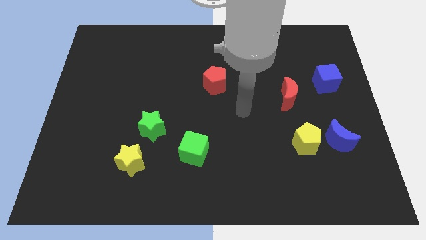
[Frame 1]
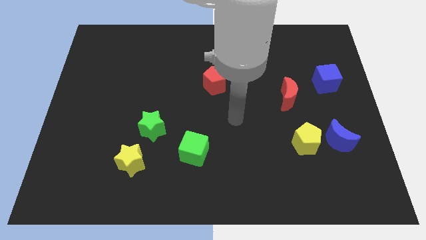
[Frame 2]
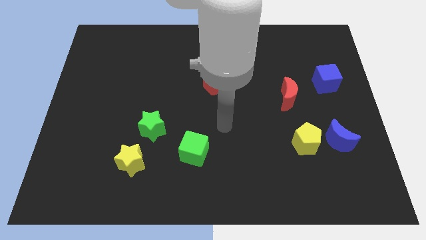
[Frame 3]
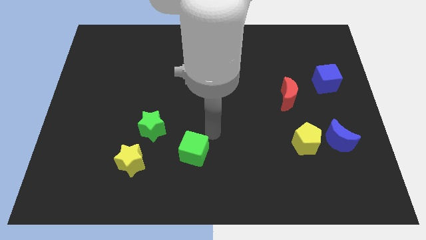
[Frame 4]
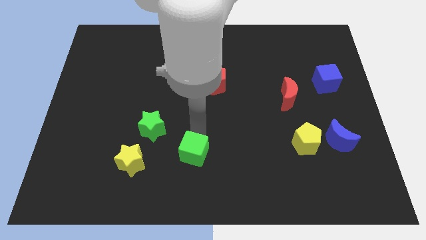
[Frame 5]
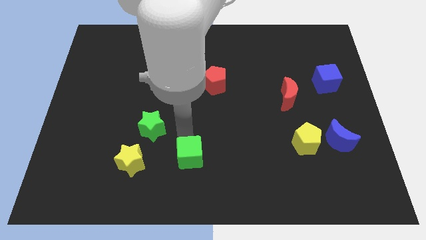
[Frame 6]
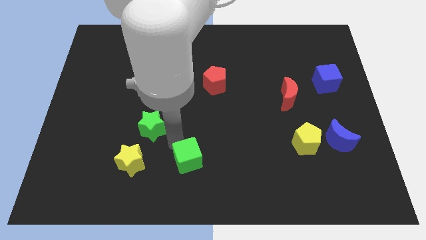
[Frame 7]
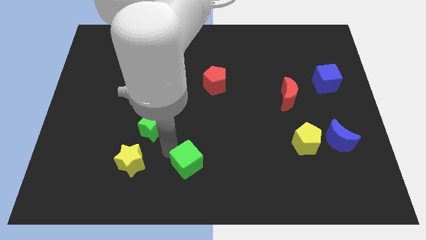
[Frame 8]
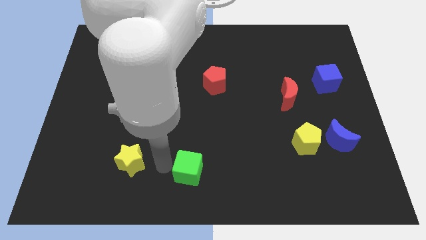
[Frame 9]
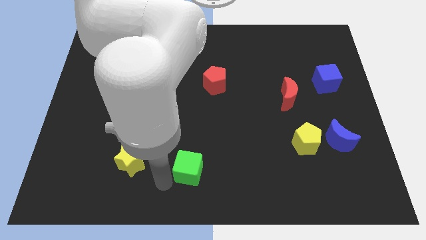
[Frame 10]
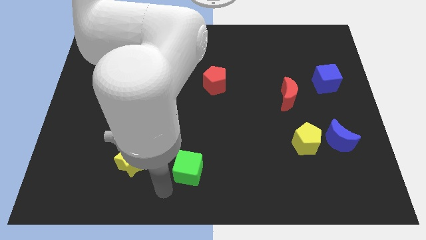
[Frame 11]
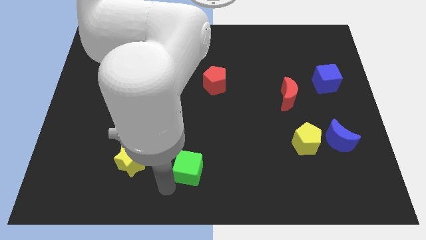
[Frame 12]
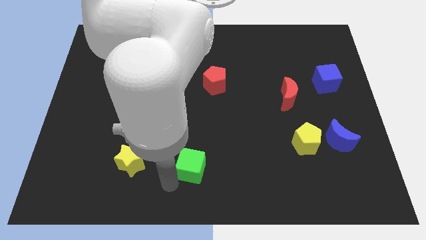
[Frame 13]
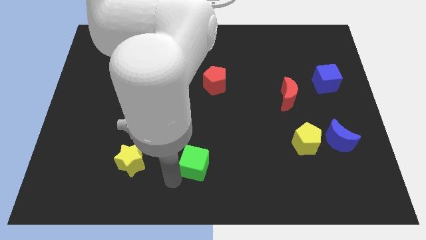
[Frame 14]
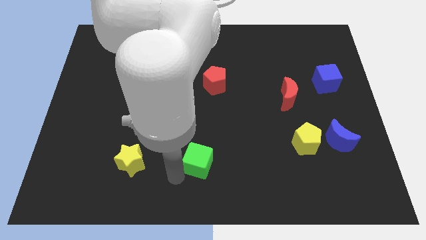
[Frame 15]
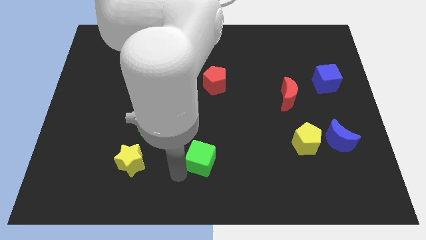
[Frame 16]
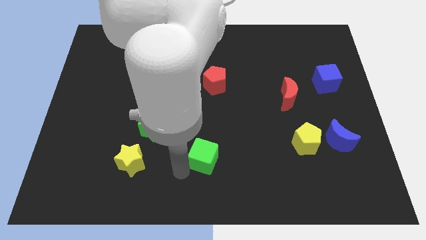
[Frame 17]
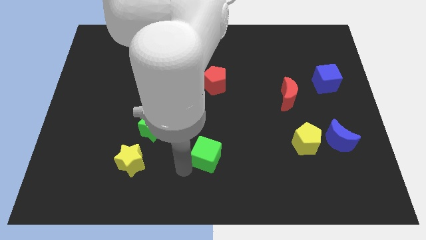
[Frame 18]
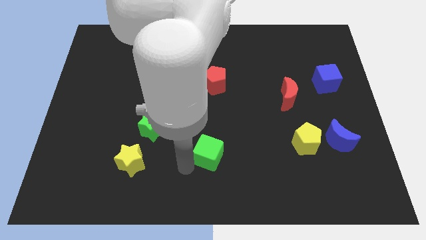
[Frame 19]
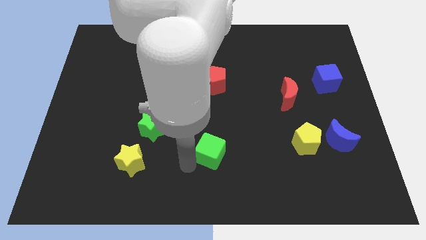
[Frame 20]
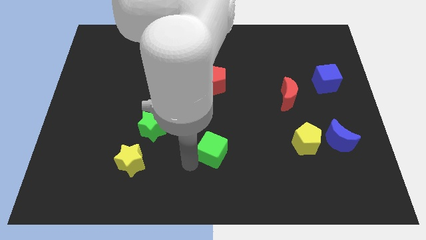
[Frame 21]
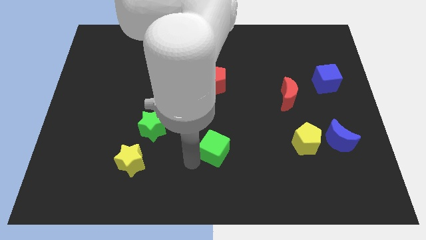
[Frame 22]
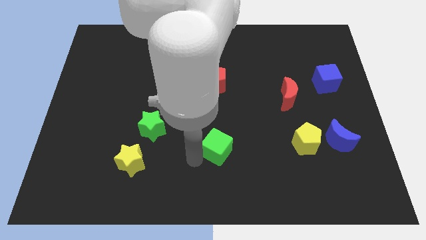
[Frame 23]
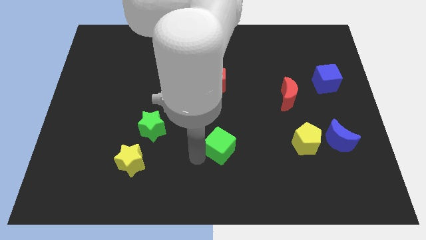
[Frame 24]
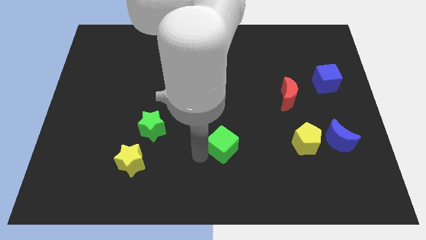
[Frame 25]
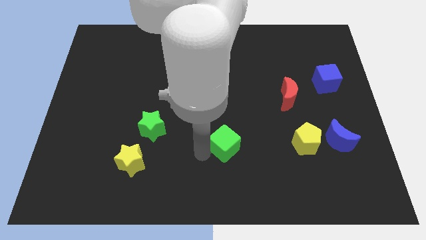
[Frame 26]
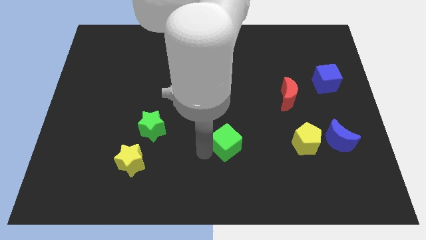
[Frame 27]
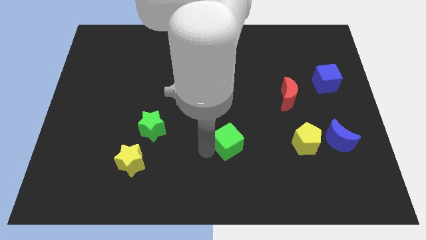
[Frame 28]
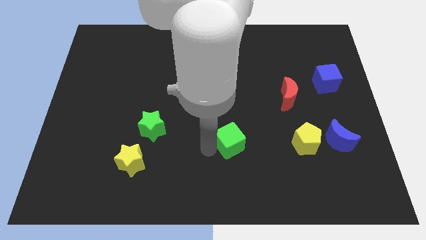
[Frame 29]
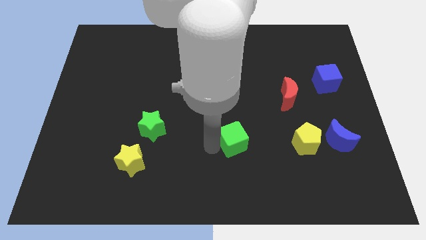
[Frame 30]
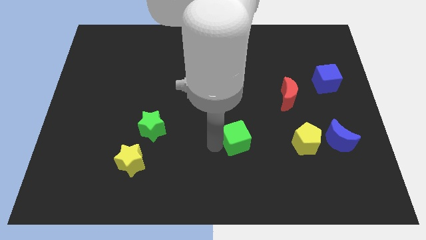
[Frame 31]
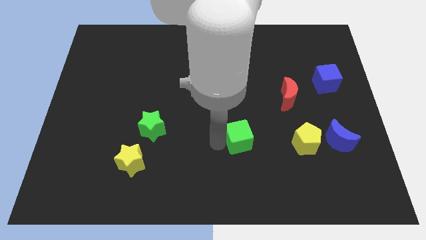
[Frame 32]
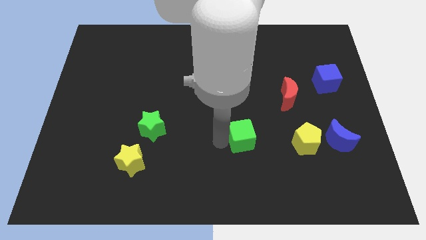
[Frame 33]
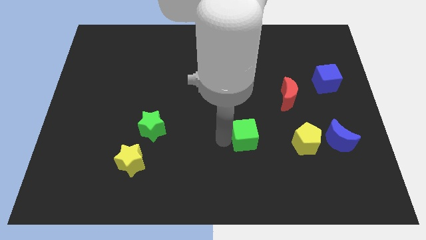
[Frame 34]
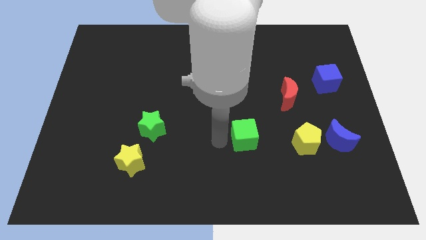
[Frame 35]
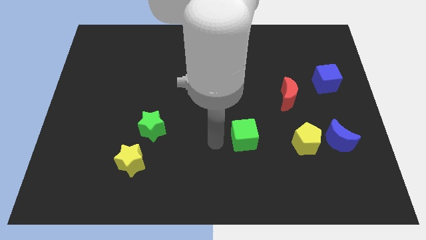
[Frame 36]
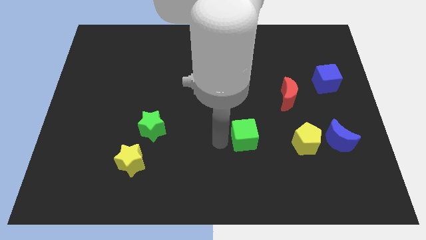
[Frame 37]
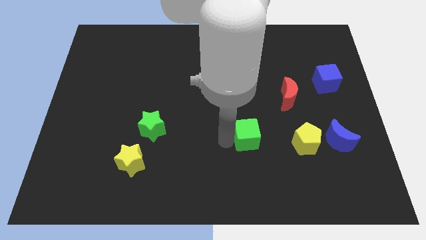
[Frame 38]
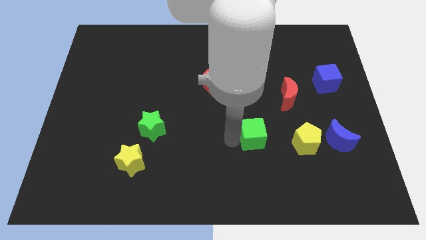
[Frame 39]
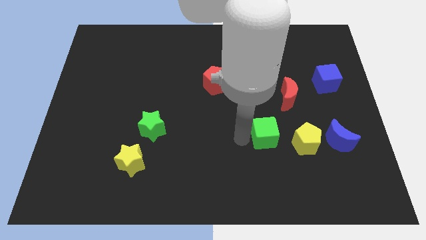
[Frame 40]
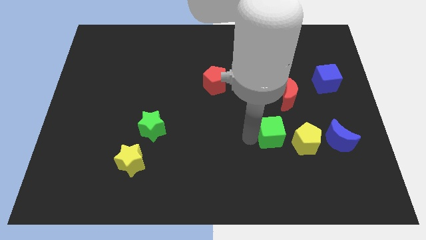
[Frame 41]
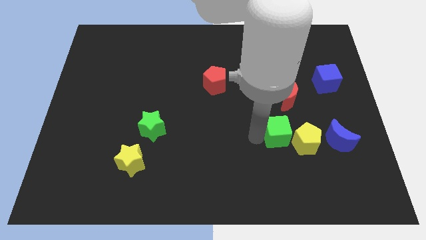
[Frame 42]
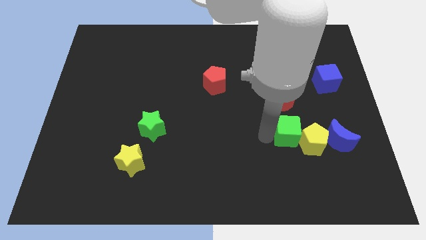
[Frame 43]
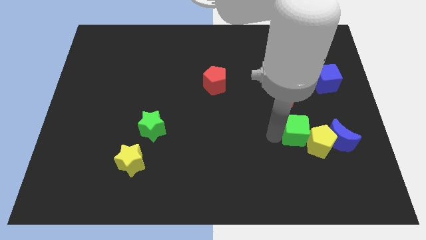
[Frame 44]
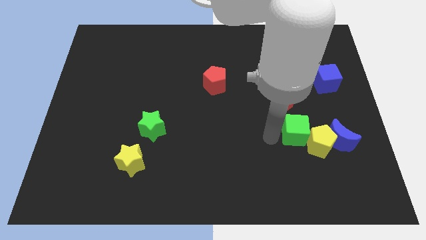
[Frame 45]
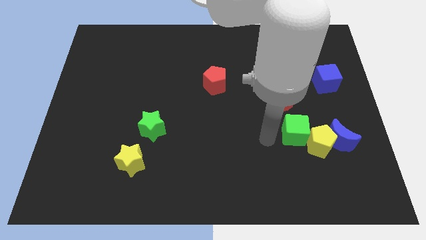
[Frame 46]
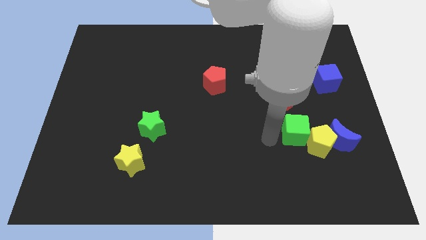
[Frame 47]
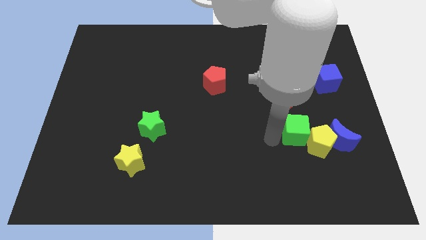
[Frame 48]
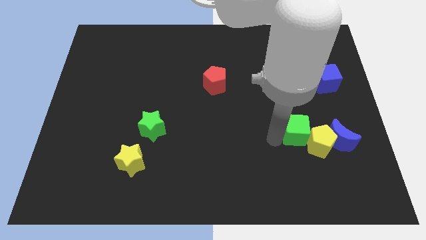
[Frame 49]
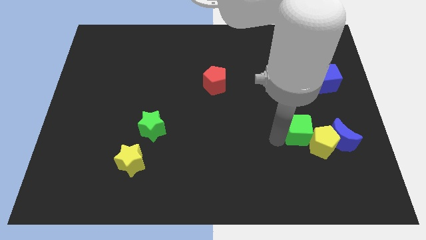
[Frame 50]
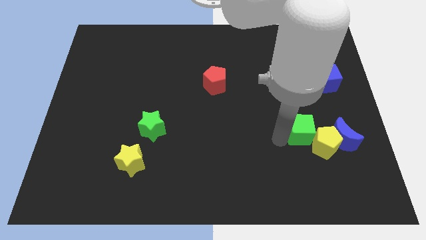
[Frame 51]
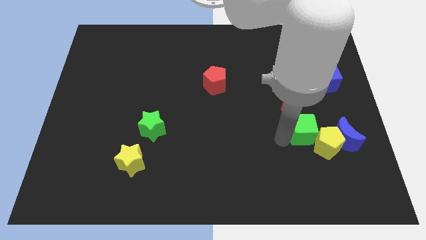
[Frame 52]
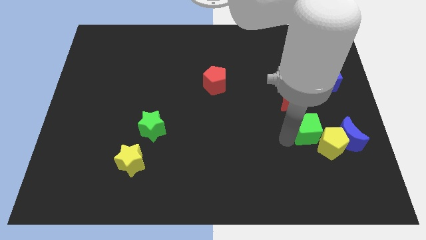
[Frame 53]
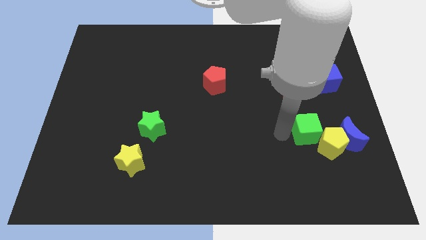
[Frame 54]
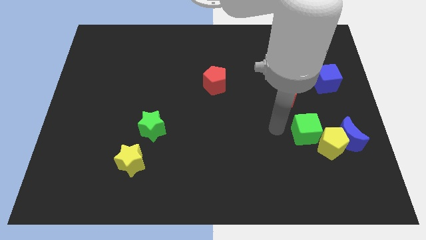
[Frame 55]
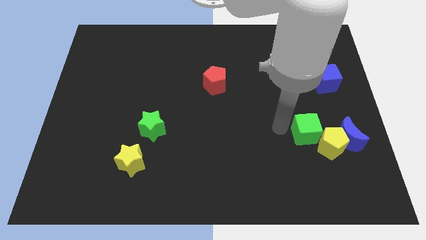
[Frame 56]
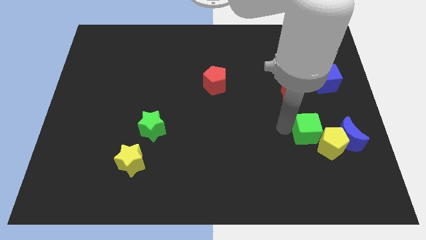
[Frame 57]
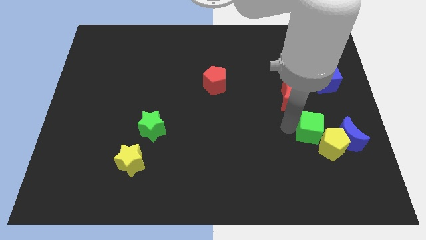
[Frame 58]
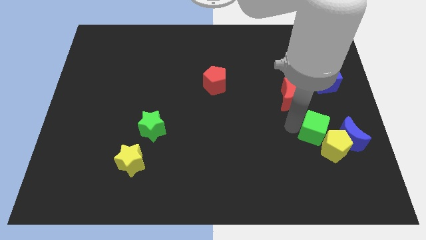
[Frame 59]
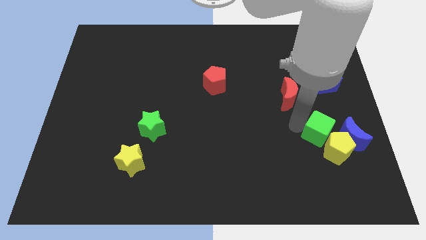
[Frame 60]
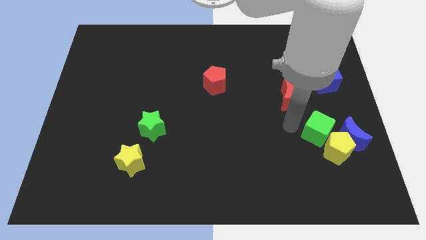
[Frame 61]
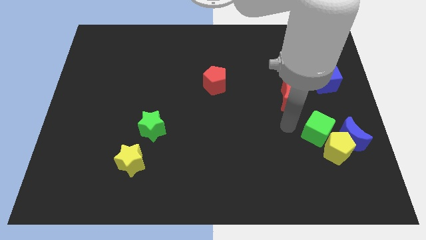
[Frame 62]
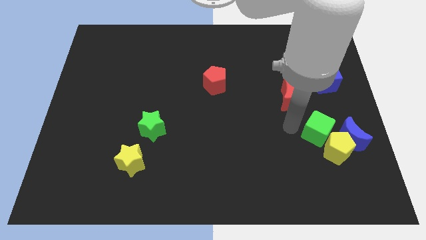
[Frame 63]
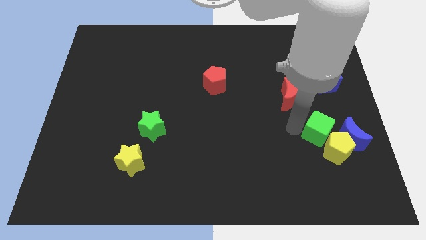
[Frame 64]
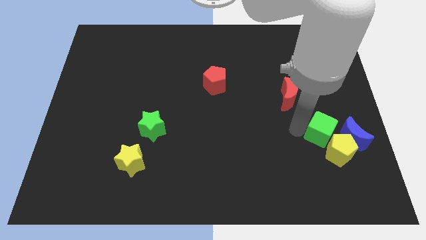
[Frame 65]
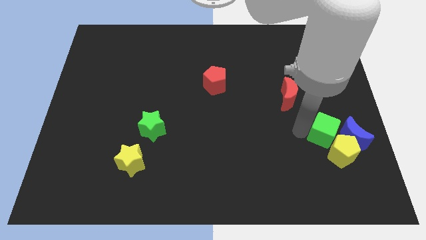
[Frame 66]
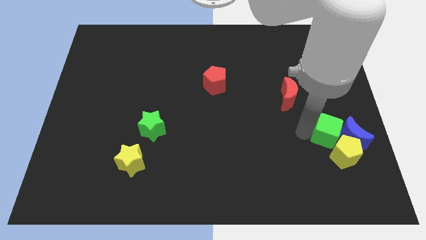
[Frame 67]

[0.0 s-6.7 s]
slide the green cube towards the blue moon

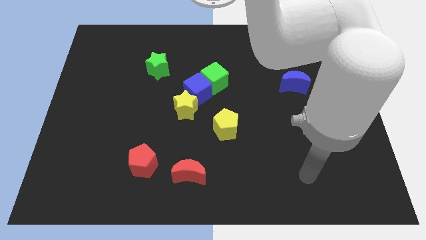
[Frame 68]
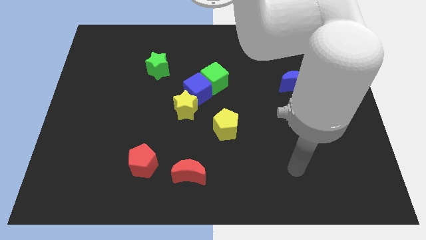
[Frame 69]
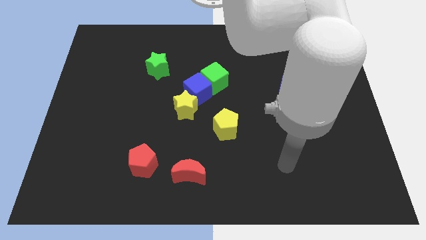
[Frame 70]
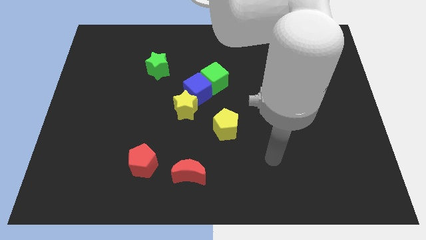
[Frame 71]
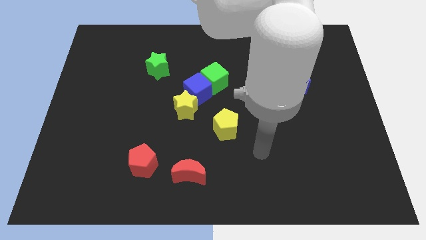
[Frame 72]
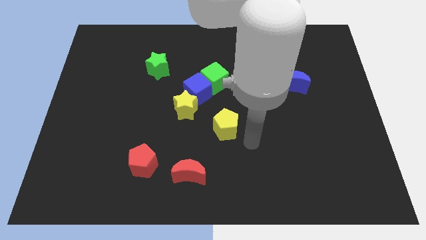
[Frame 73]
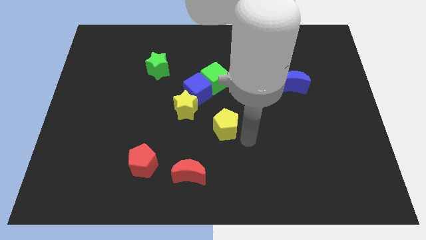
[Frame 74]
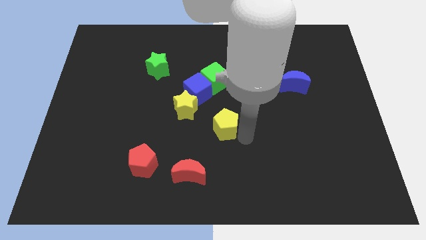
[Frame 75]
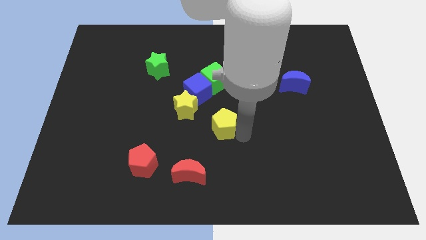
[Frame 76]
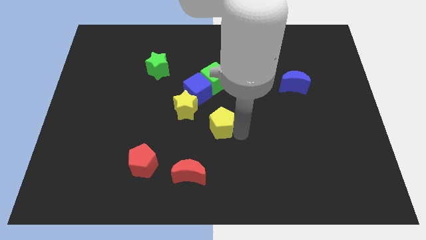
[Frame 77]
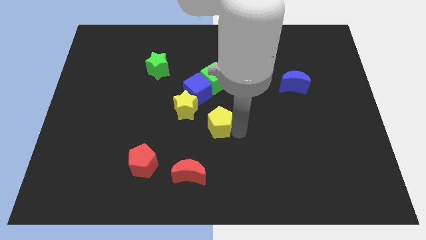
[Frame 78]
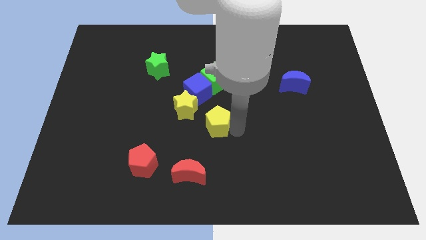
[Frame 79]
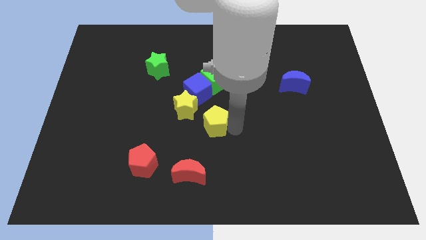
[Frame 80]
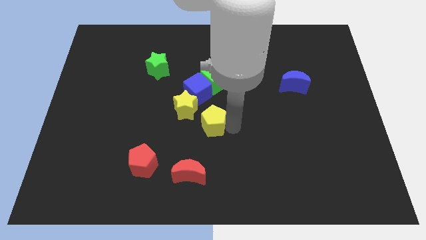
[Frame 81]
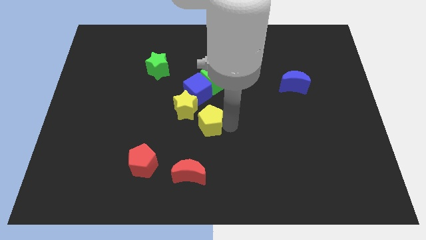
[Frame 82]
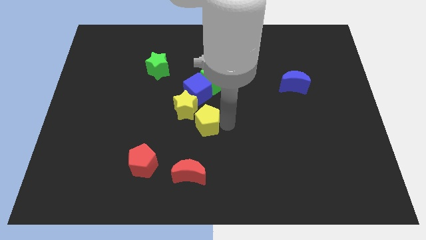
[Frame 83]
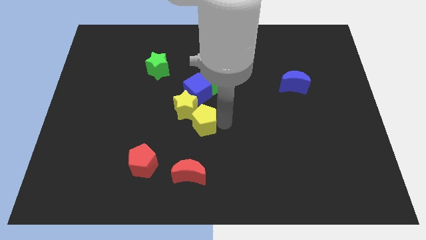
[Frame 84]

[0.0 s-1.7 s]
move the yellow pentagon to the yellow star

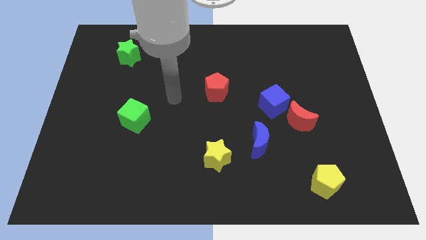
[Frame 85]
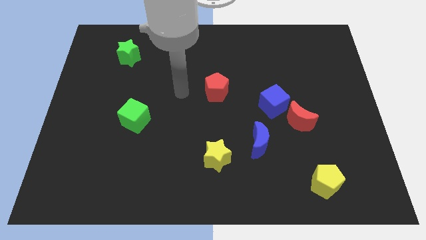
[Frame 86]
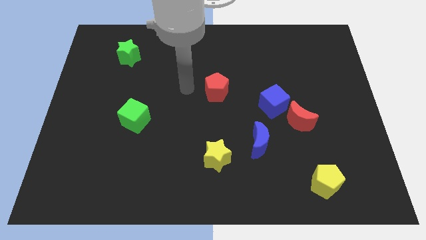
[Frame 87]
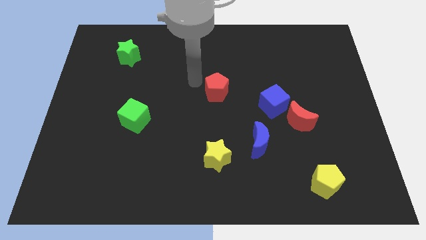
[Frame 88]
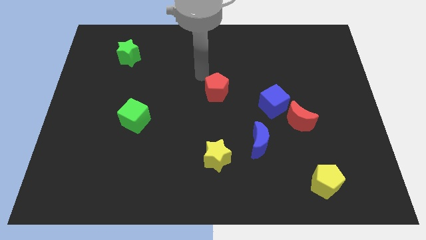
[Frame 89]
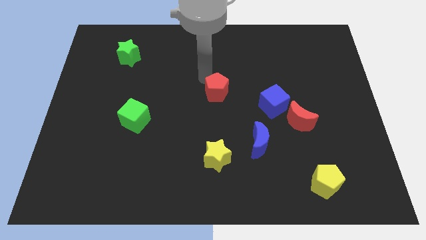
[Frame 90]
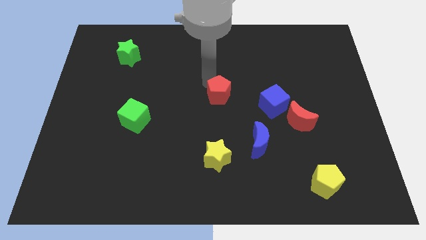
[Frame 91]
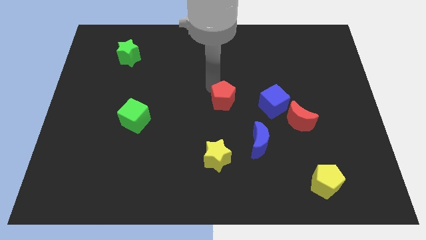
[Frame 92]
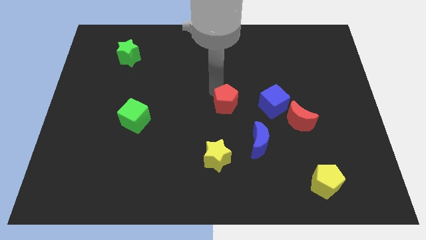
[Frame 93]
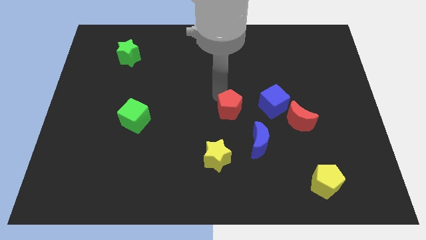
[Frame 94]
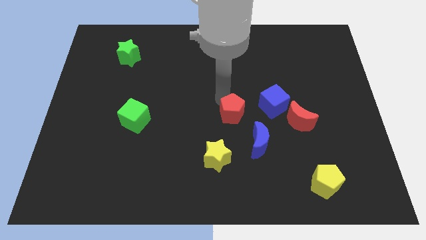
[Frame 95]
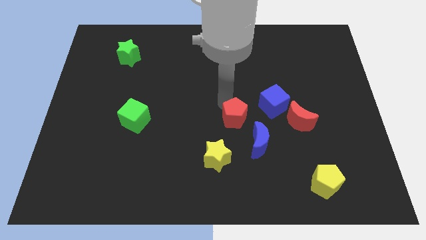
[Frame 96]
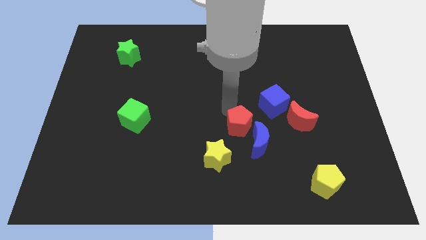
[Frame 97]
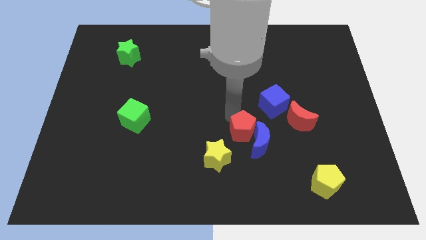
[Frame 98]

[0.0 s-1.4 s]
put the red pentagon close to the blue moon
